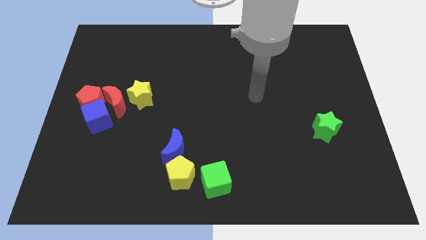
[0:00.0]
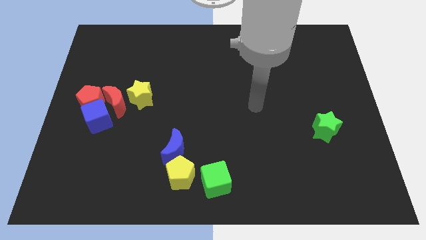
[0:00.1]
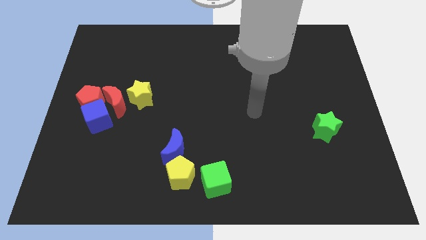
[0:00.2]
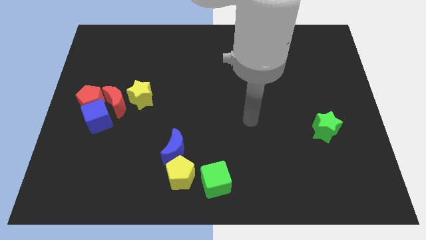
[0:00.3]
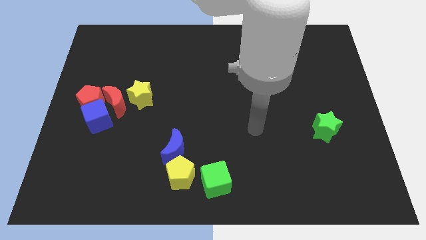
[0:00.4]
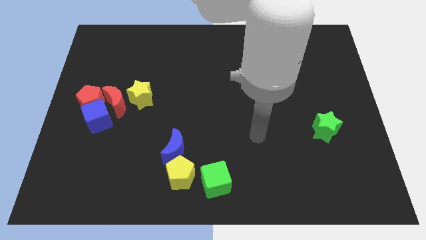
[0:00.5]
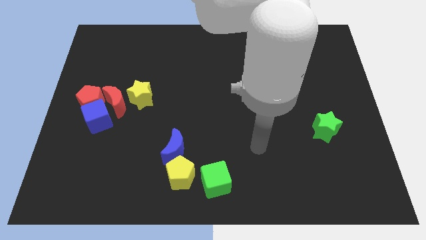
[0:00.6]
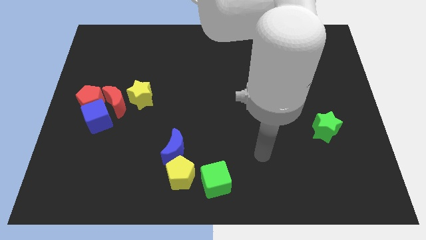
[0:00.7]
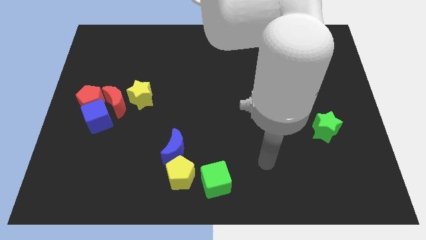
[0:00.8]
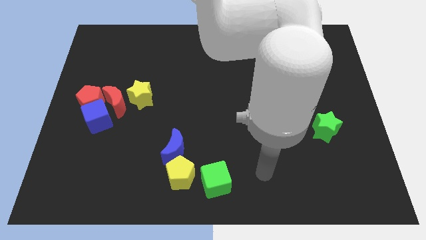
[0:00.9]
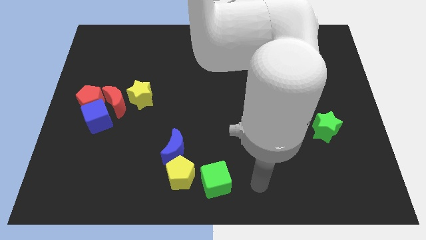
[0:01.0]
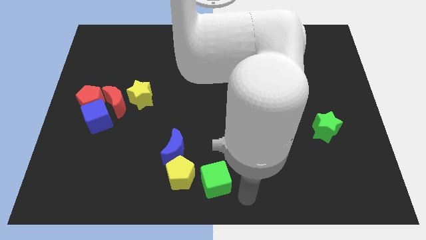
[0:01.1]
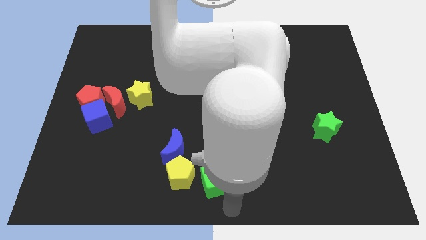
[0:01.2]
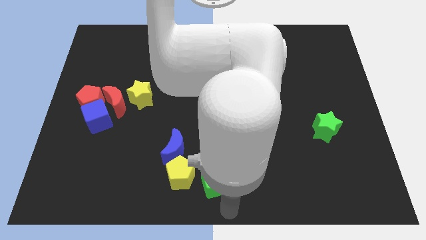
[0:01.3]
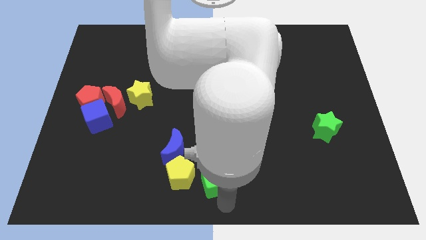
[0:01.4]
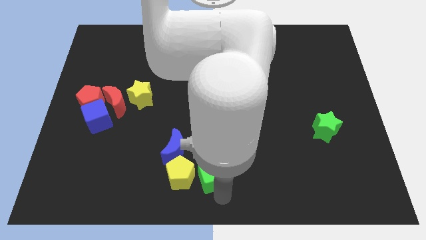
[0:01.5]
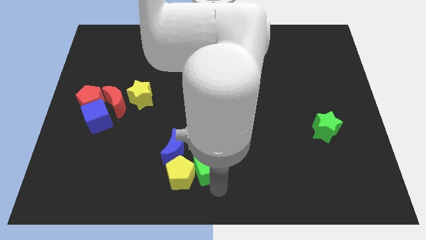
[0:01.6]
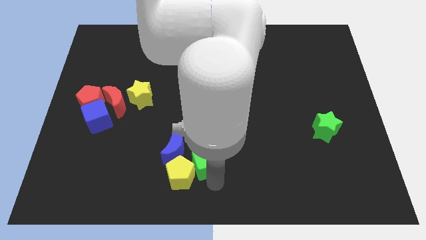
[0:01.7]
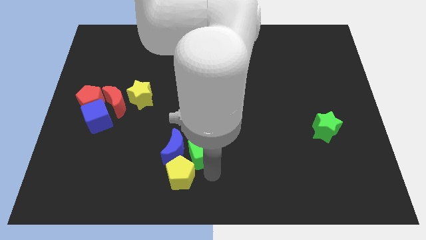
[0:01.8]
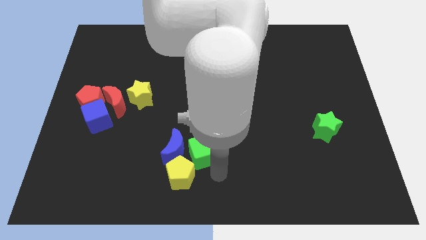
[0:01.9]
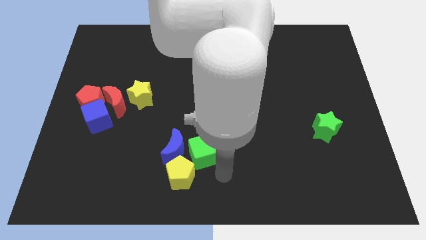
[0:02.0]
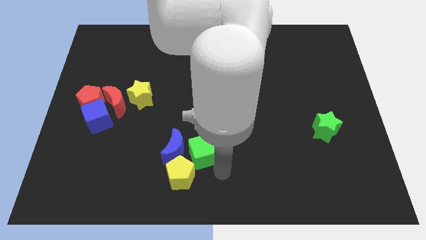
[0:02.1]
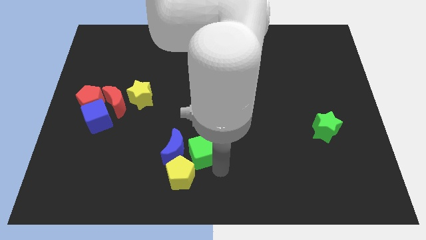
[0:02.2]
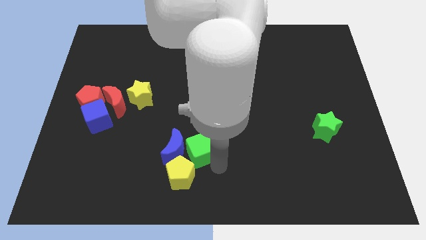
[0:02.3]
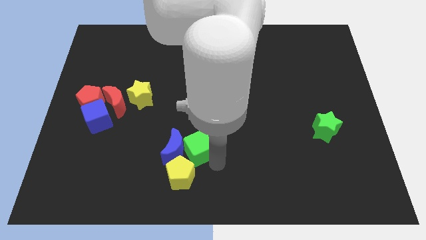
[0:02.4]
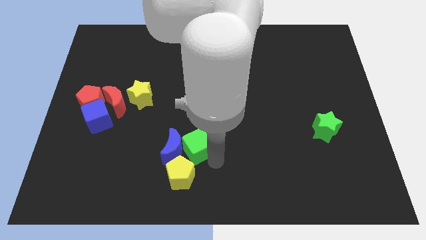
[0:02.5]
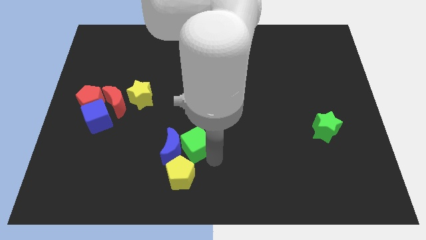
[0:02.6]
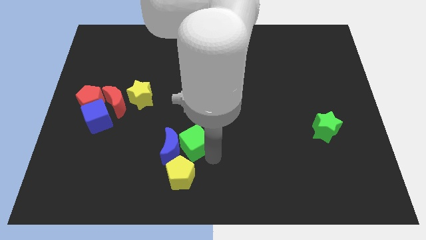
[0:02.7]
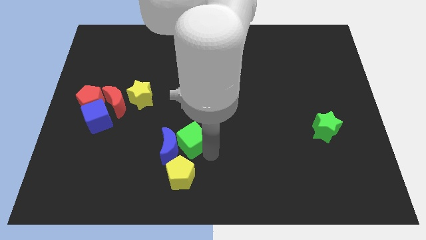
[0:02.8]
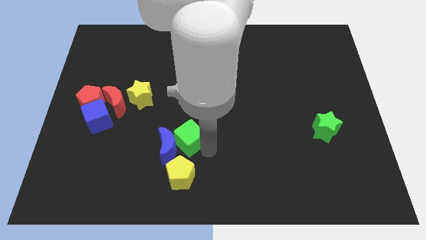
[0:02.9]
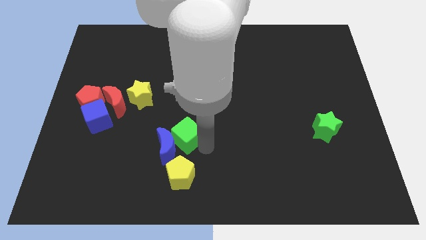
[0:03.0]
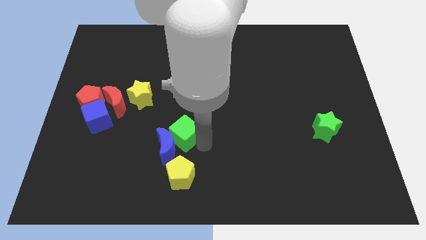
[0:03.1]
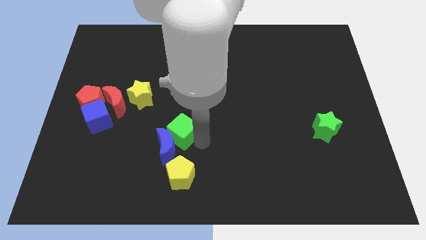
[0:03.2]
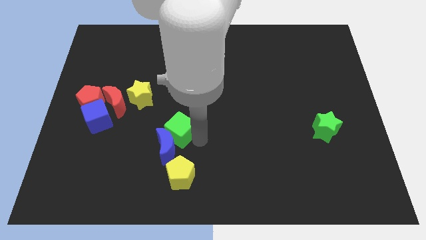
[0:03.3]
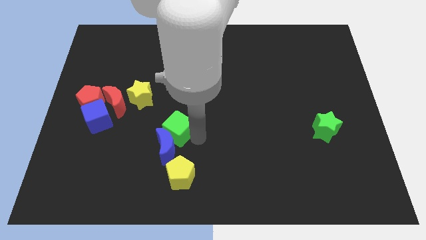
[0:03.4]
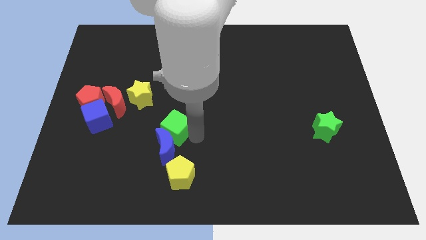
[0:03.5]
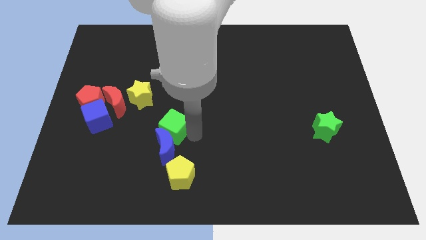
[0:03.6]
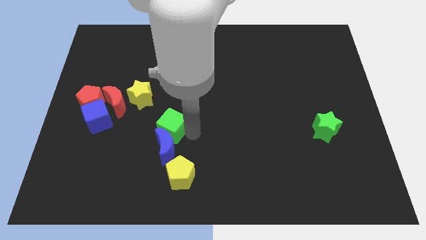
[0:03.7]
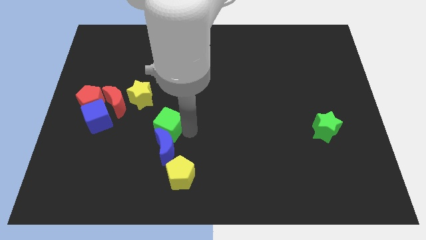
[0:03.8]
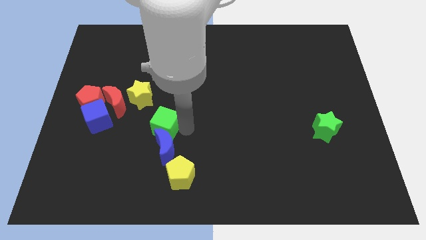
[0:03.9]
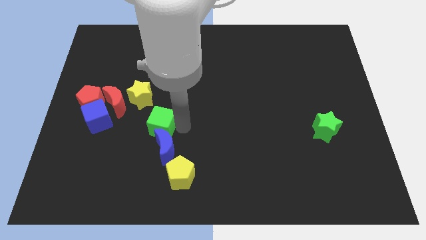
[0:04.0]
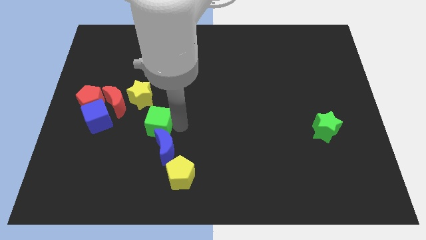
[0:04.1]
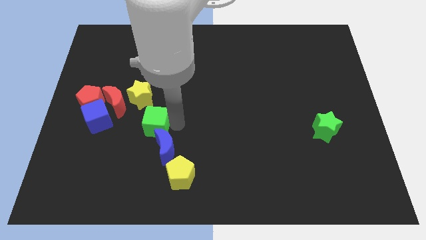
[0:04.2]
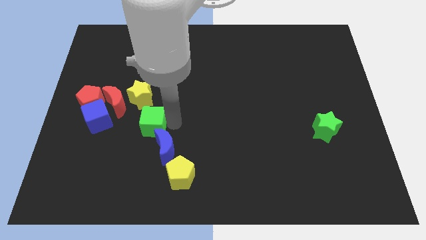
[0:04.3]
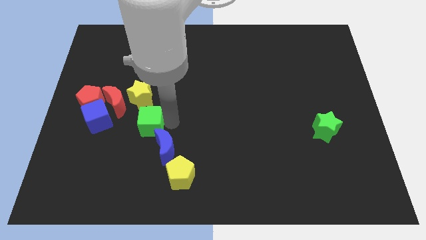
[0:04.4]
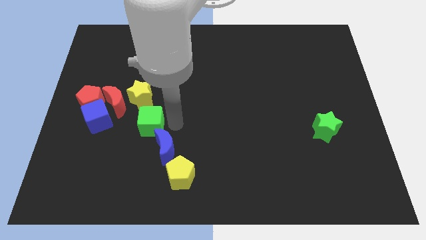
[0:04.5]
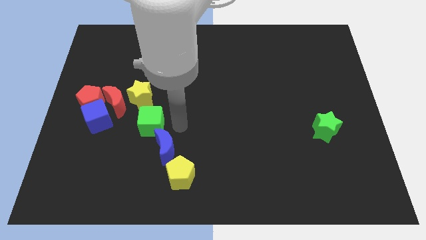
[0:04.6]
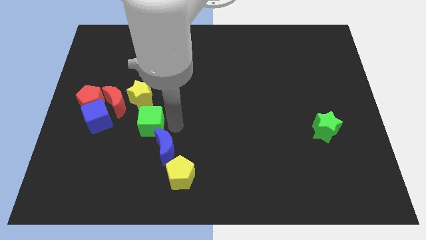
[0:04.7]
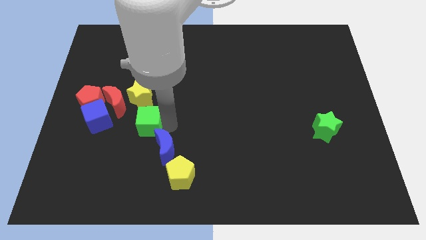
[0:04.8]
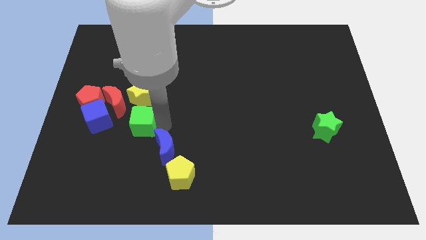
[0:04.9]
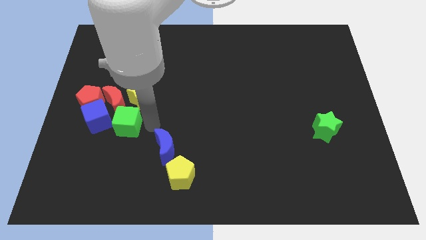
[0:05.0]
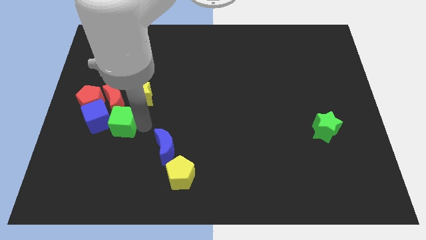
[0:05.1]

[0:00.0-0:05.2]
move the green cube to the blue cube

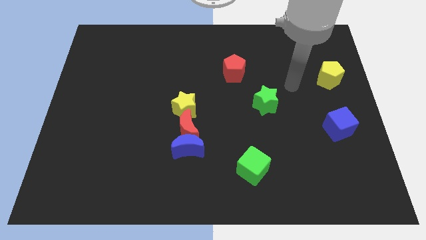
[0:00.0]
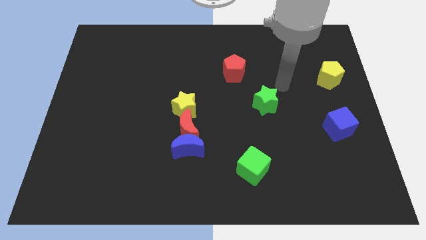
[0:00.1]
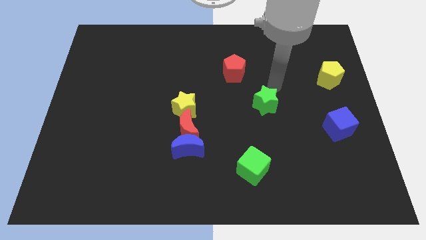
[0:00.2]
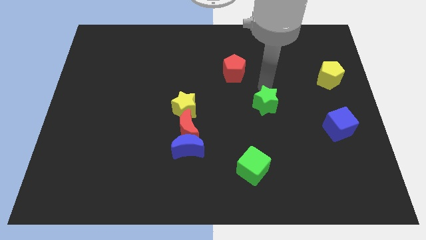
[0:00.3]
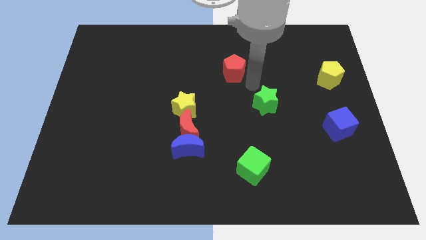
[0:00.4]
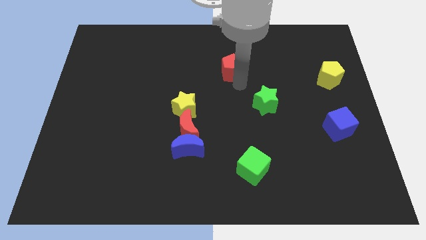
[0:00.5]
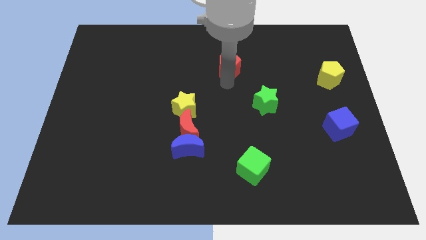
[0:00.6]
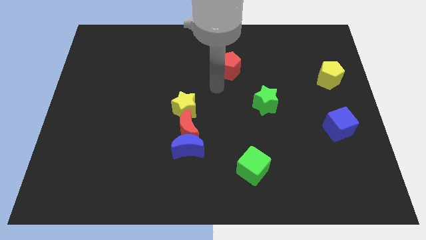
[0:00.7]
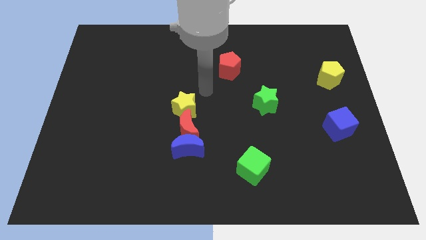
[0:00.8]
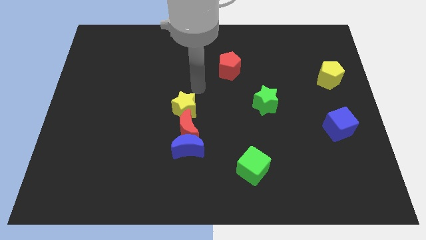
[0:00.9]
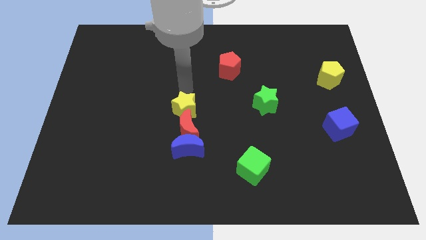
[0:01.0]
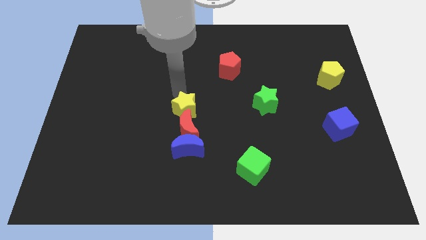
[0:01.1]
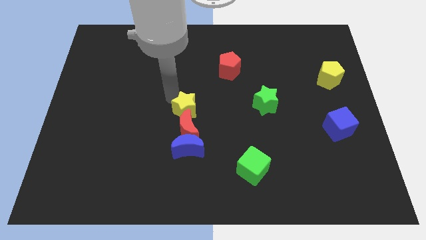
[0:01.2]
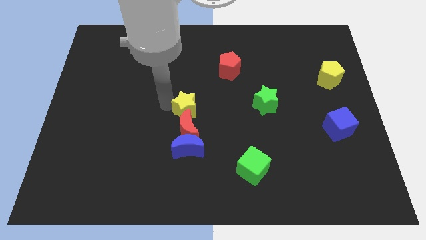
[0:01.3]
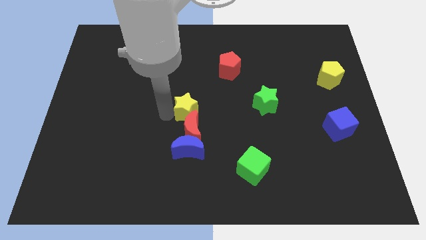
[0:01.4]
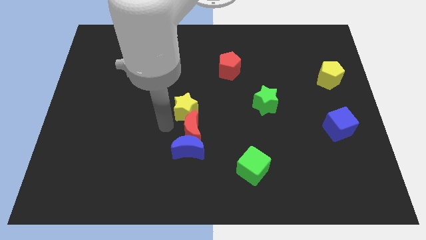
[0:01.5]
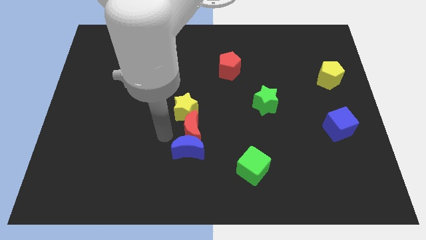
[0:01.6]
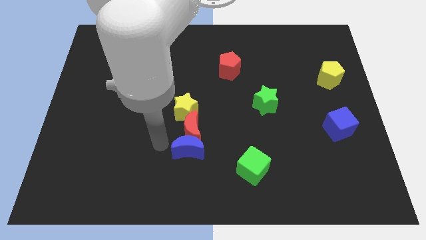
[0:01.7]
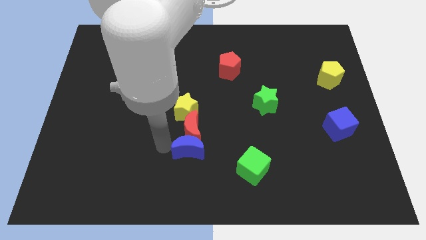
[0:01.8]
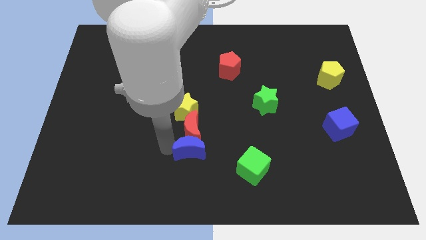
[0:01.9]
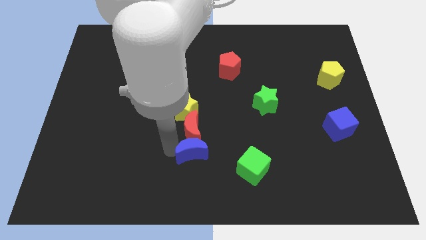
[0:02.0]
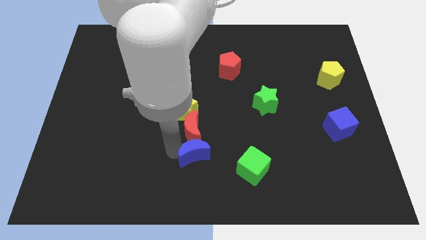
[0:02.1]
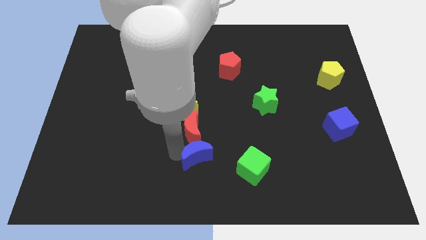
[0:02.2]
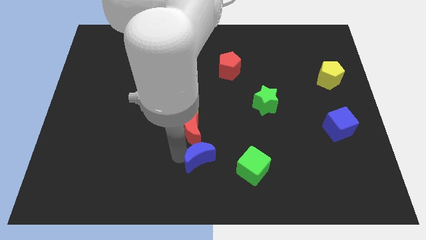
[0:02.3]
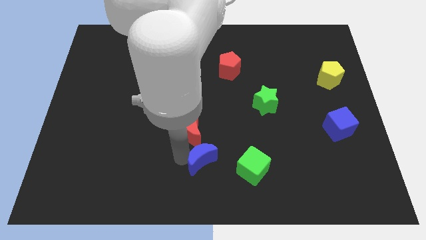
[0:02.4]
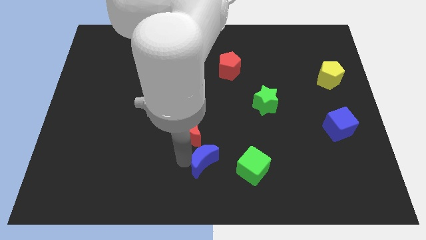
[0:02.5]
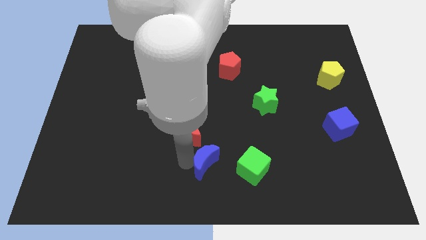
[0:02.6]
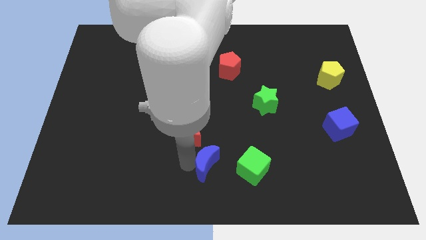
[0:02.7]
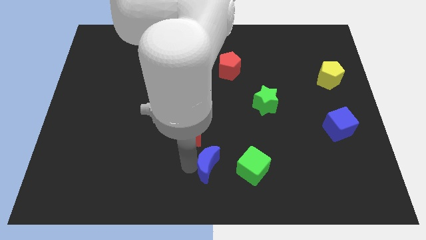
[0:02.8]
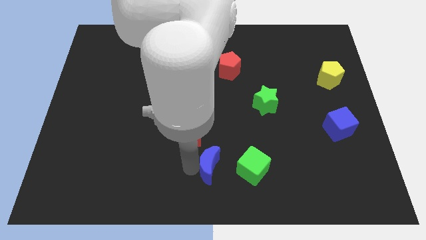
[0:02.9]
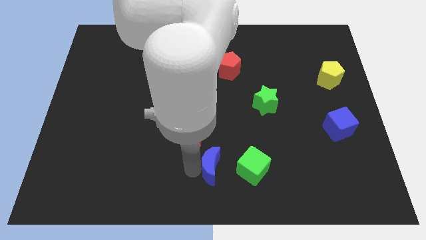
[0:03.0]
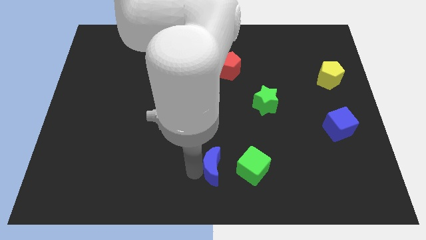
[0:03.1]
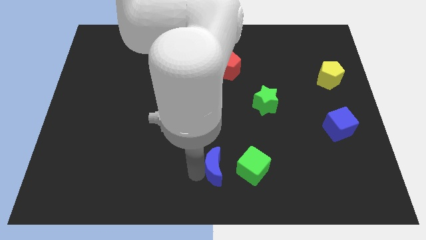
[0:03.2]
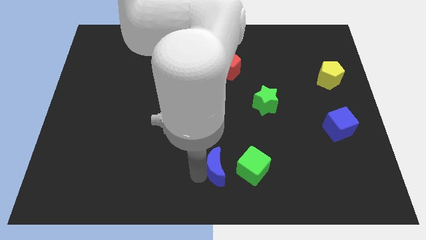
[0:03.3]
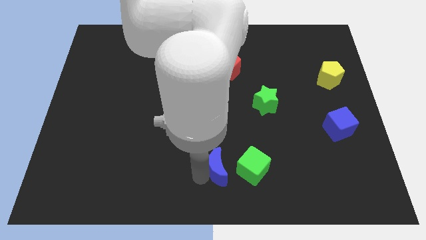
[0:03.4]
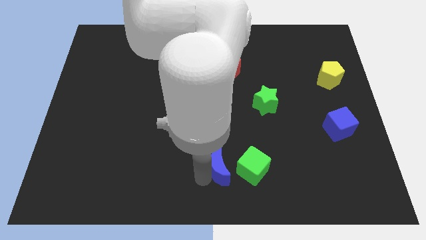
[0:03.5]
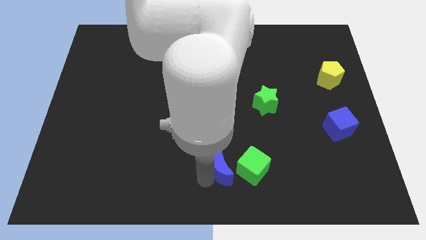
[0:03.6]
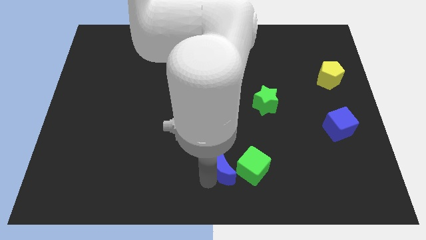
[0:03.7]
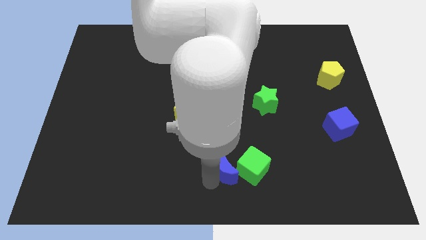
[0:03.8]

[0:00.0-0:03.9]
move the blue moon towards the green cube
